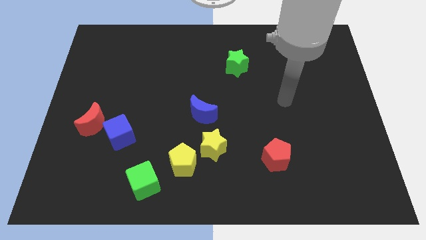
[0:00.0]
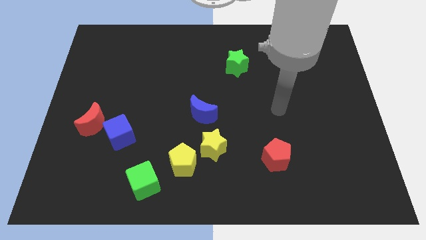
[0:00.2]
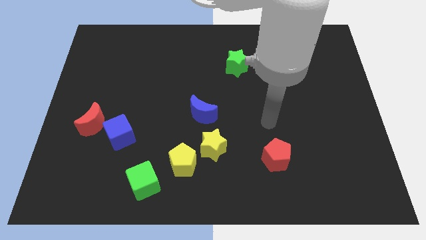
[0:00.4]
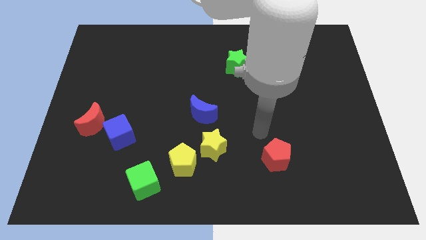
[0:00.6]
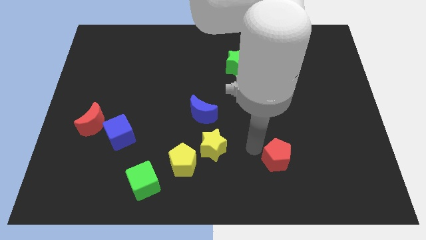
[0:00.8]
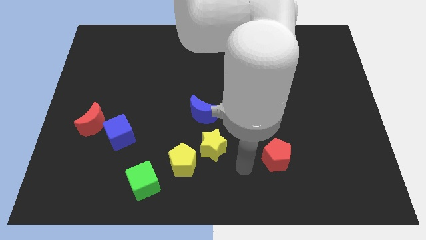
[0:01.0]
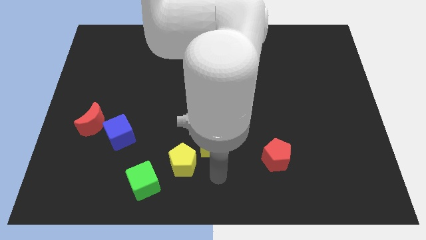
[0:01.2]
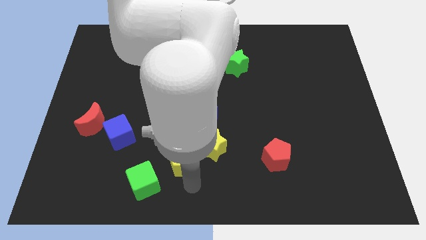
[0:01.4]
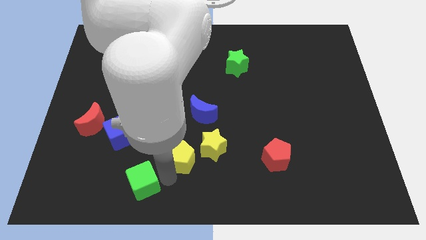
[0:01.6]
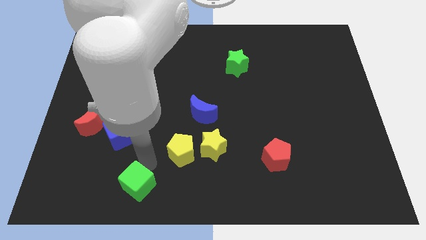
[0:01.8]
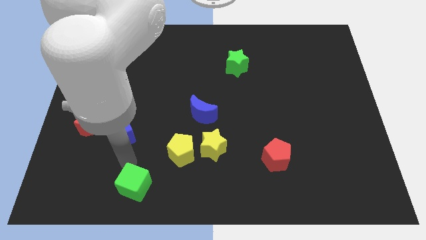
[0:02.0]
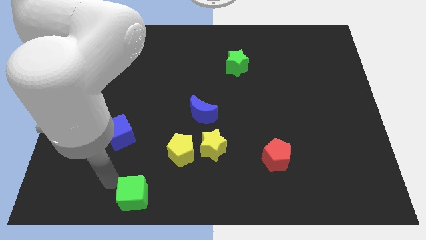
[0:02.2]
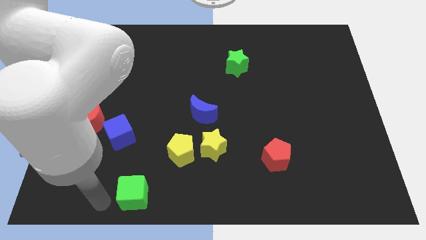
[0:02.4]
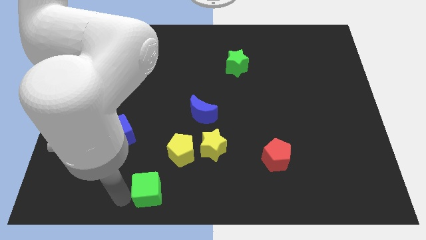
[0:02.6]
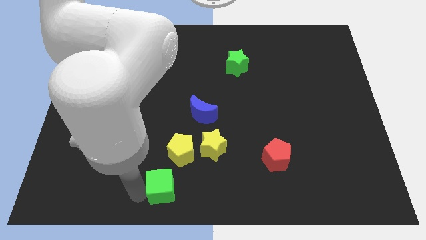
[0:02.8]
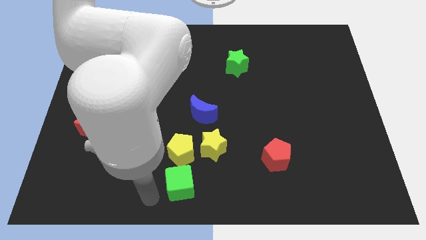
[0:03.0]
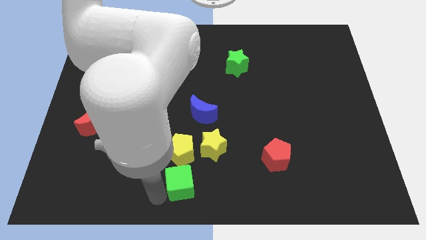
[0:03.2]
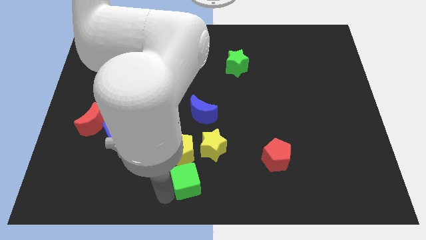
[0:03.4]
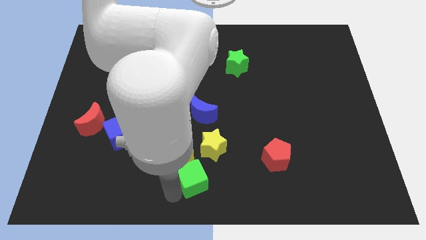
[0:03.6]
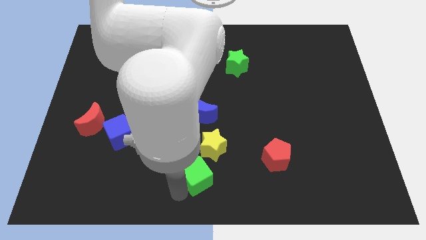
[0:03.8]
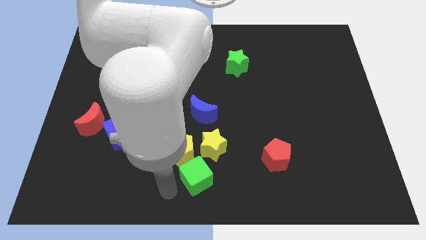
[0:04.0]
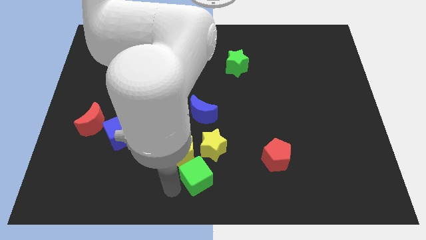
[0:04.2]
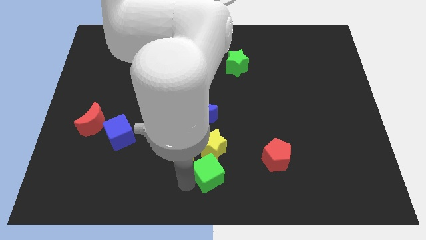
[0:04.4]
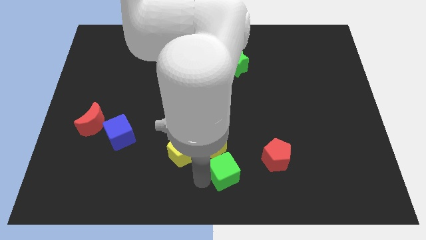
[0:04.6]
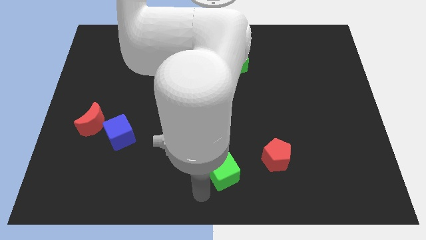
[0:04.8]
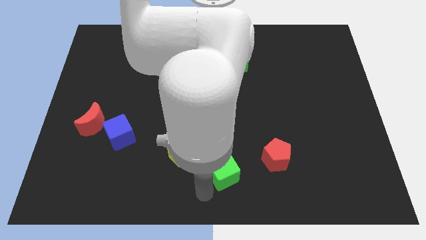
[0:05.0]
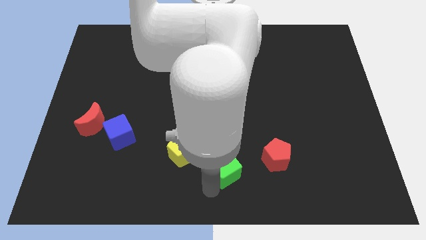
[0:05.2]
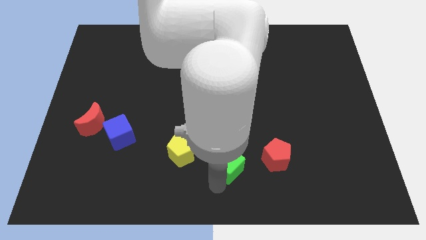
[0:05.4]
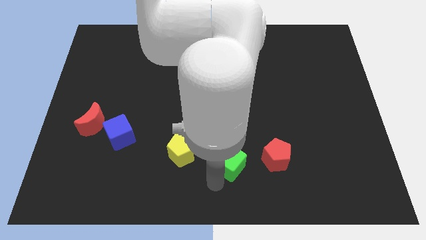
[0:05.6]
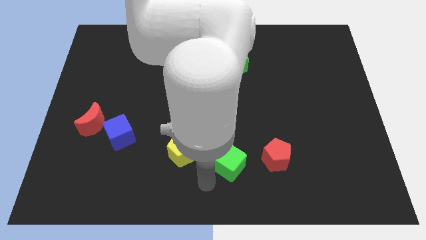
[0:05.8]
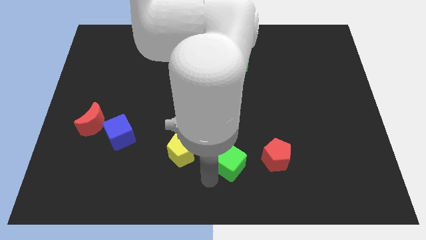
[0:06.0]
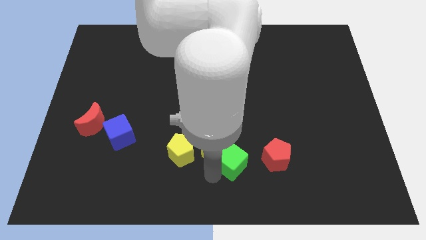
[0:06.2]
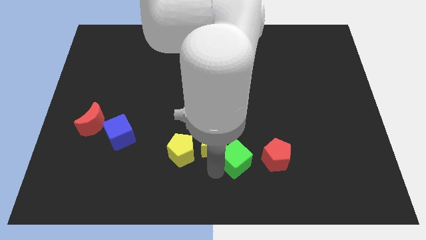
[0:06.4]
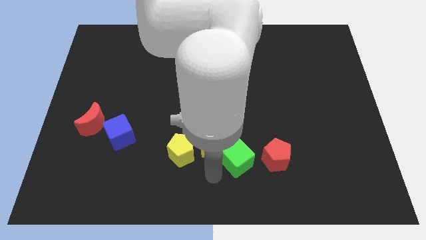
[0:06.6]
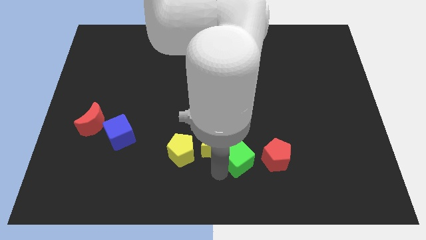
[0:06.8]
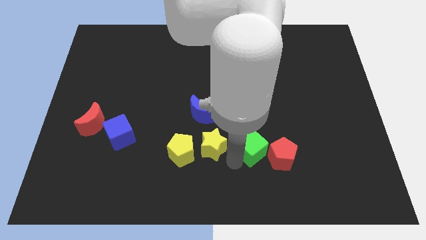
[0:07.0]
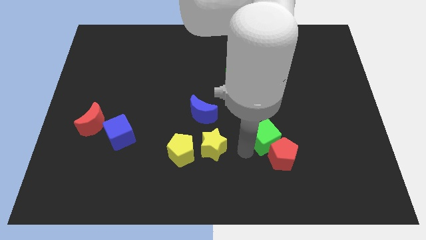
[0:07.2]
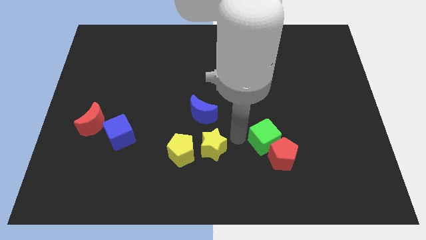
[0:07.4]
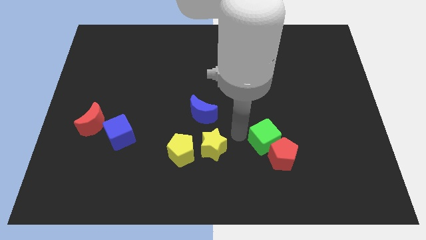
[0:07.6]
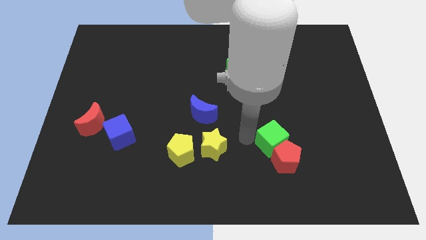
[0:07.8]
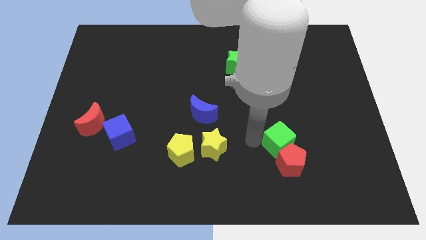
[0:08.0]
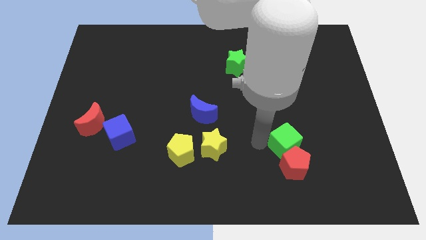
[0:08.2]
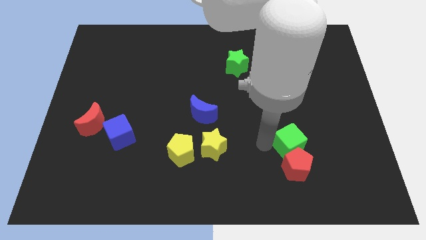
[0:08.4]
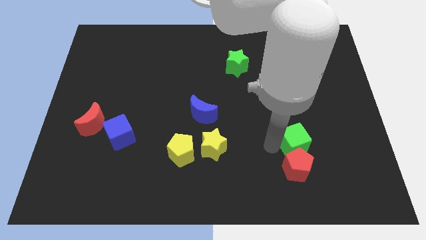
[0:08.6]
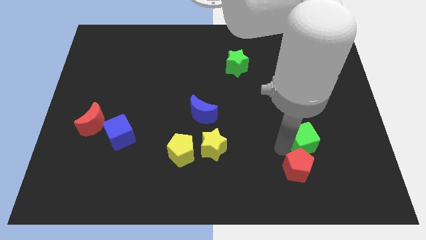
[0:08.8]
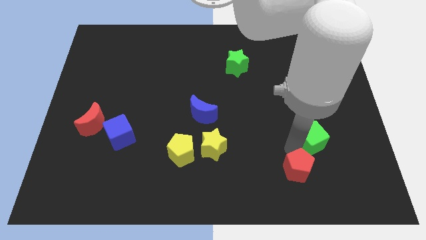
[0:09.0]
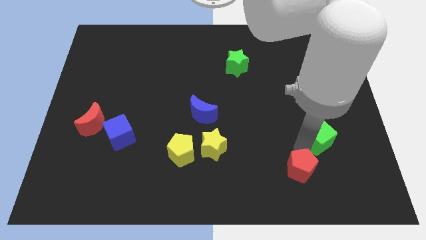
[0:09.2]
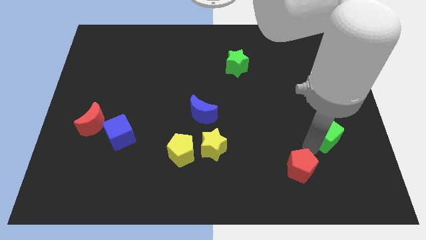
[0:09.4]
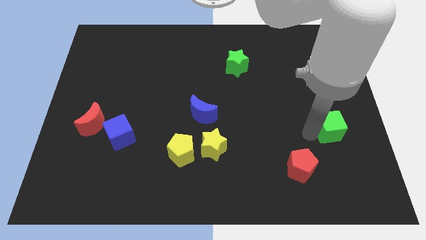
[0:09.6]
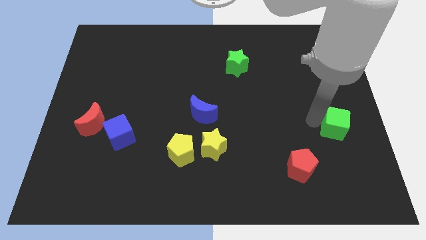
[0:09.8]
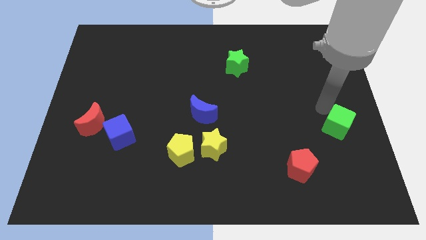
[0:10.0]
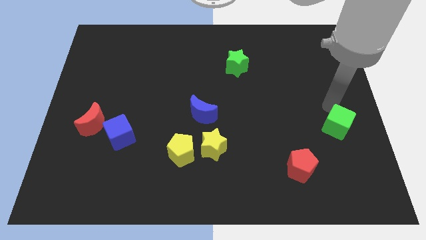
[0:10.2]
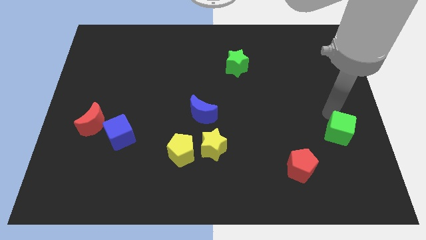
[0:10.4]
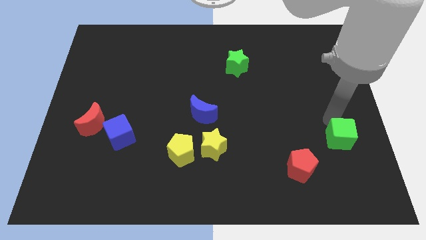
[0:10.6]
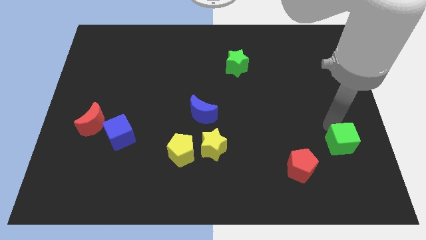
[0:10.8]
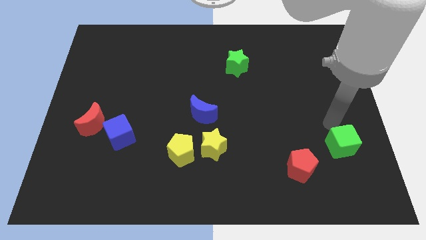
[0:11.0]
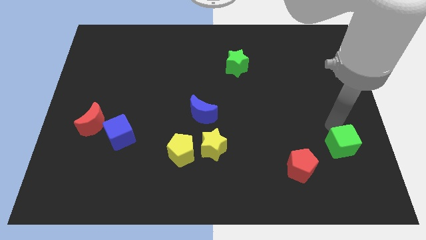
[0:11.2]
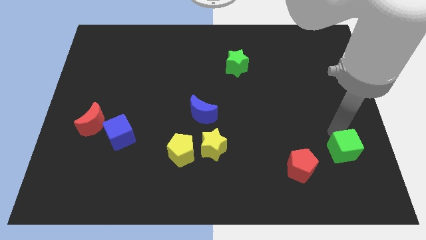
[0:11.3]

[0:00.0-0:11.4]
move the green cube to the right of the red pentagon
